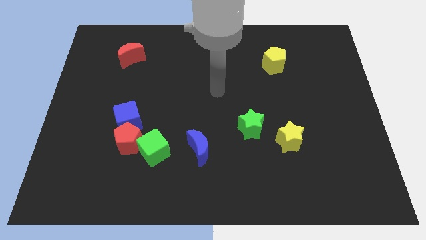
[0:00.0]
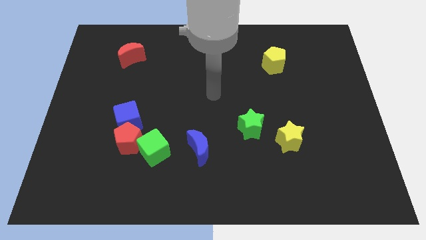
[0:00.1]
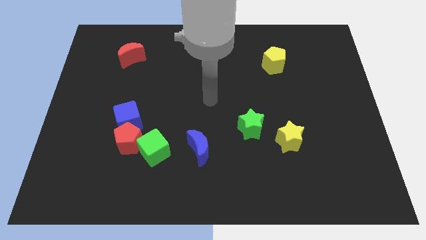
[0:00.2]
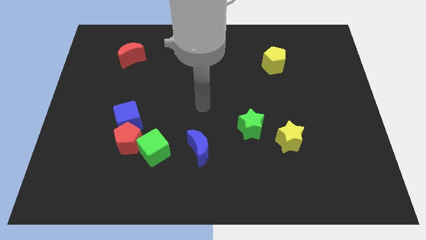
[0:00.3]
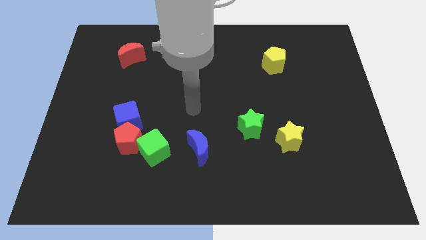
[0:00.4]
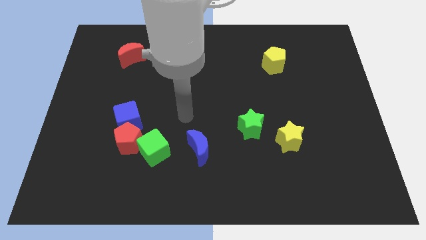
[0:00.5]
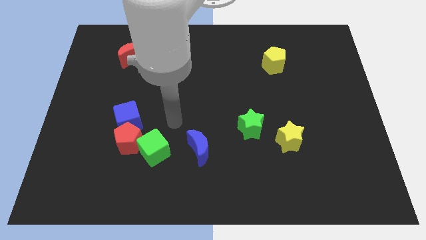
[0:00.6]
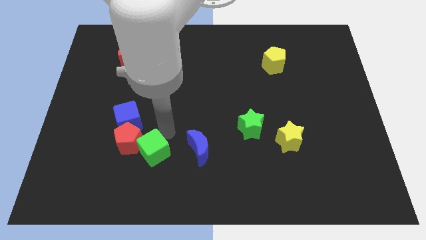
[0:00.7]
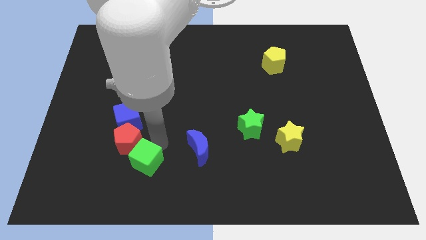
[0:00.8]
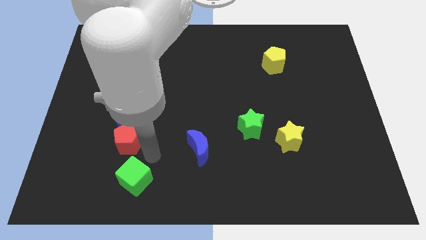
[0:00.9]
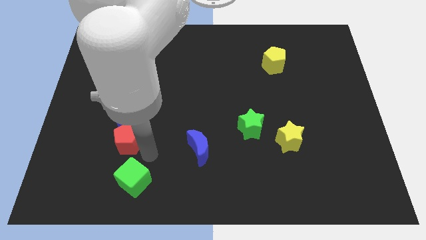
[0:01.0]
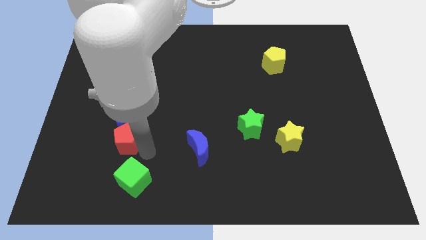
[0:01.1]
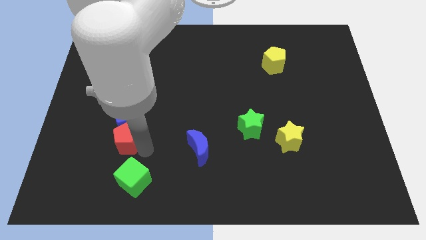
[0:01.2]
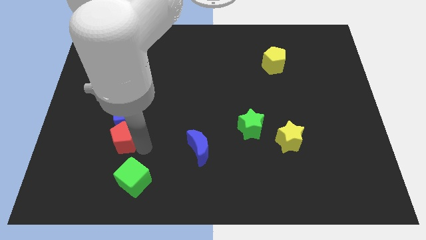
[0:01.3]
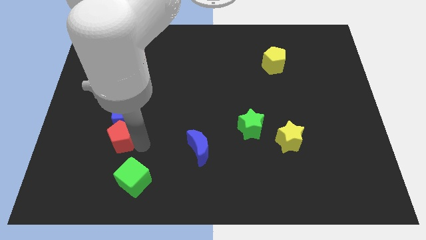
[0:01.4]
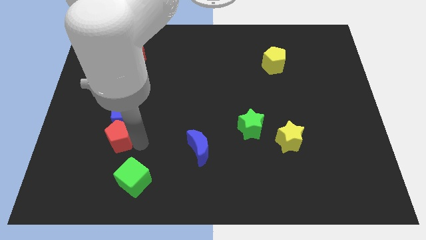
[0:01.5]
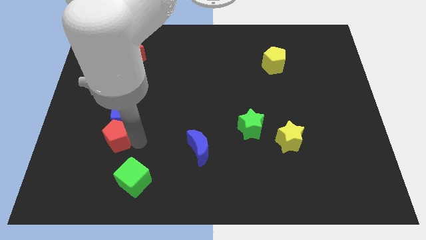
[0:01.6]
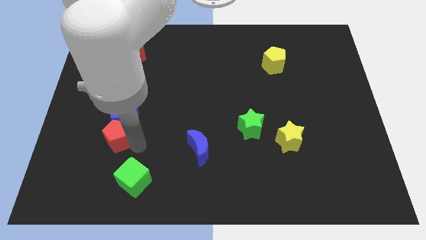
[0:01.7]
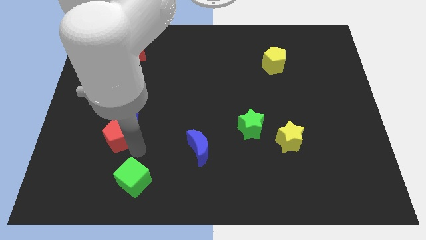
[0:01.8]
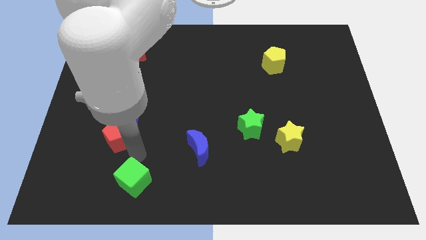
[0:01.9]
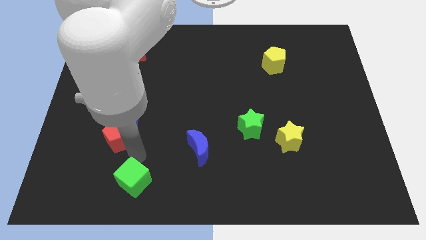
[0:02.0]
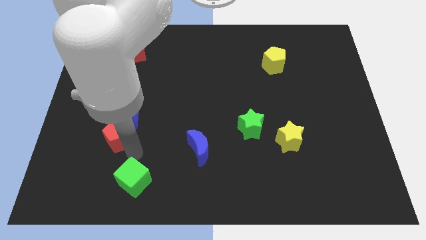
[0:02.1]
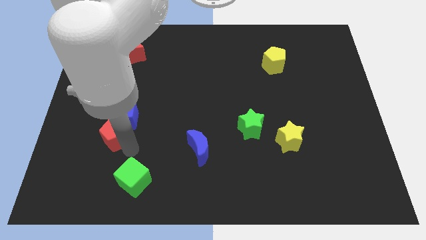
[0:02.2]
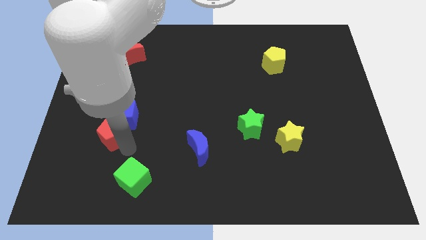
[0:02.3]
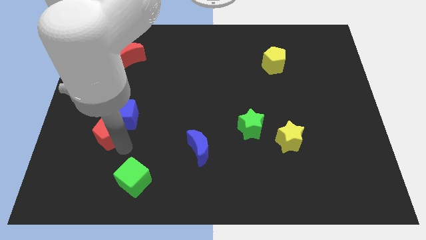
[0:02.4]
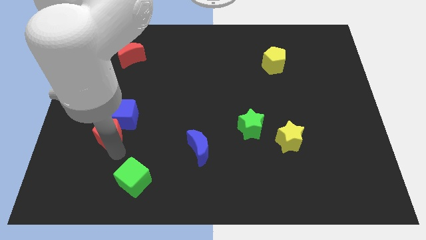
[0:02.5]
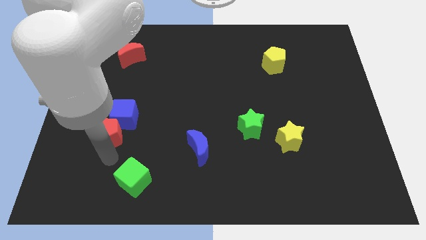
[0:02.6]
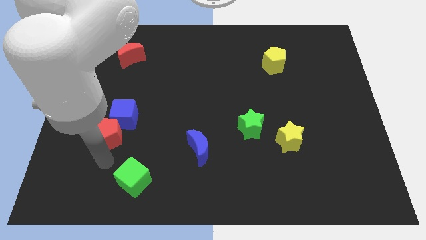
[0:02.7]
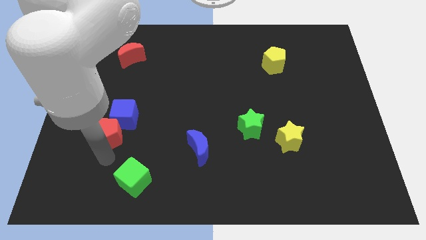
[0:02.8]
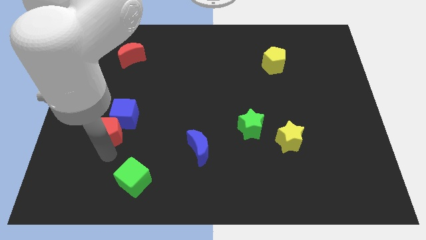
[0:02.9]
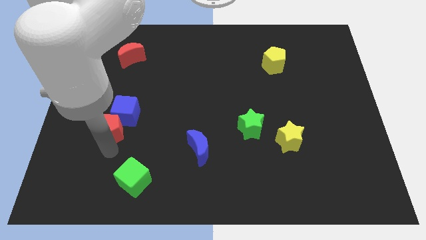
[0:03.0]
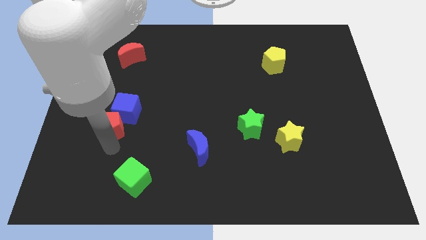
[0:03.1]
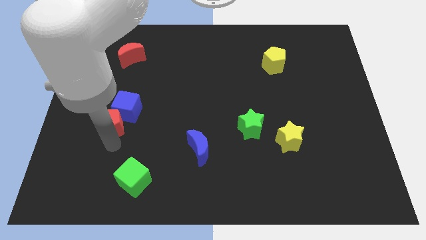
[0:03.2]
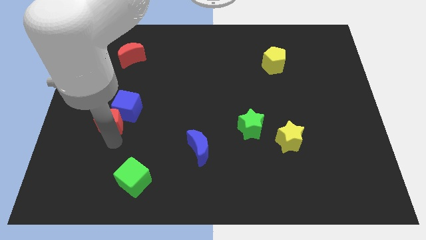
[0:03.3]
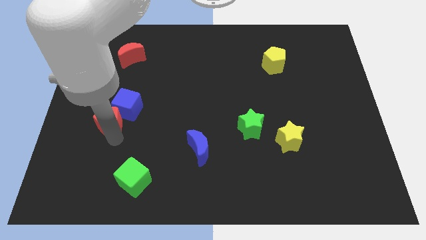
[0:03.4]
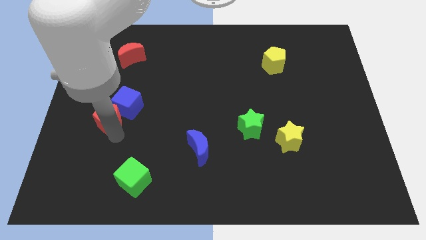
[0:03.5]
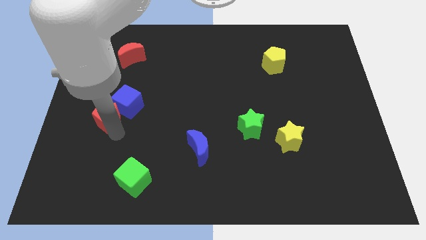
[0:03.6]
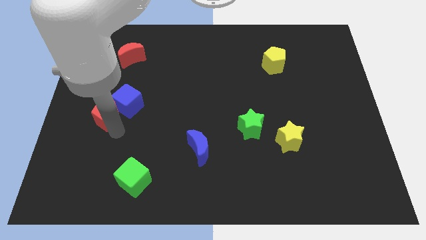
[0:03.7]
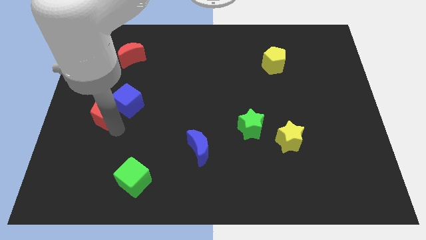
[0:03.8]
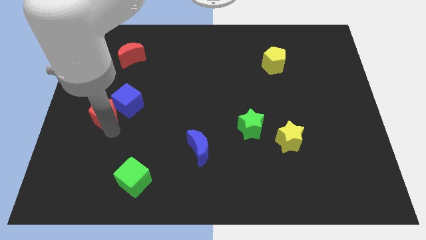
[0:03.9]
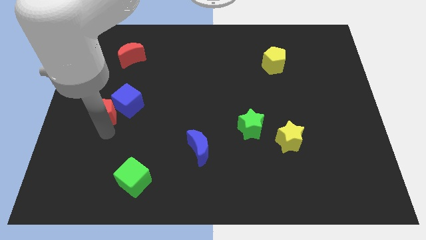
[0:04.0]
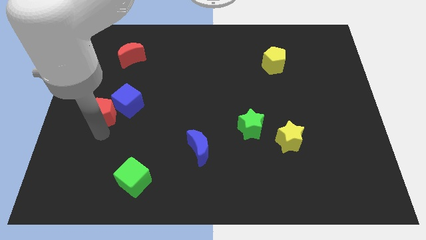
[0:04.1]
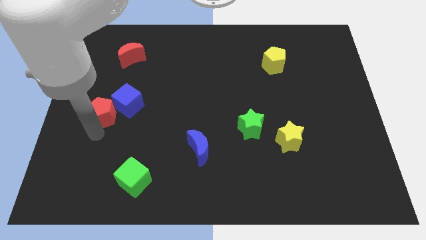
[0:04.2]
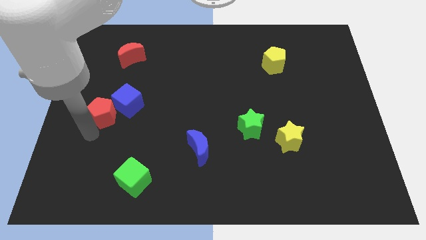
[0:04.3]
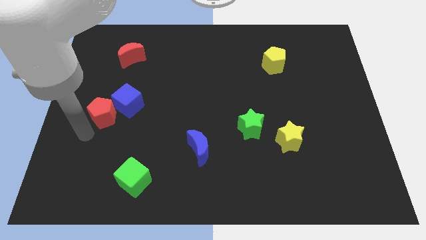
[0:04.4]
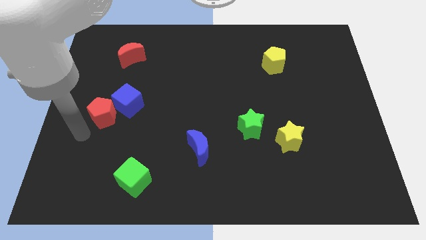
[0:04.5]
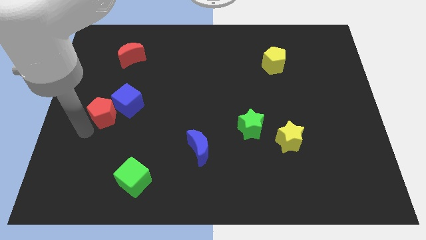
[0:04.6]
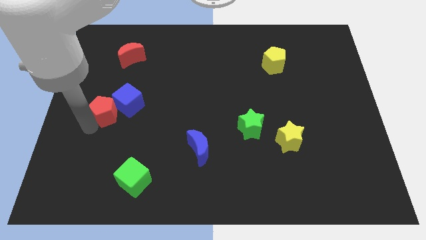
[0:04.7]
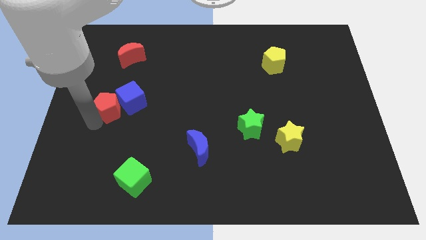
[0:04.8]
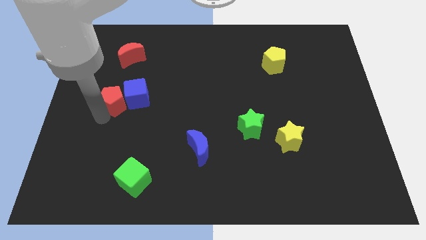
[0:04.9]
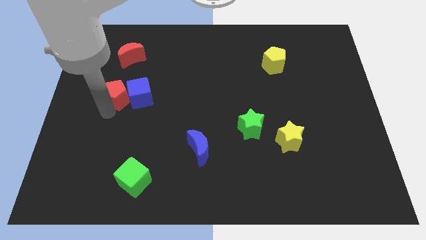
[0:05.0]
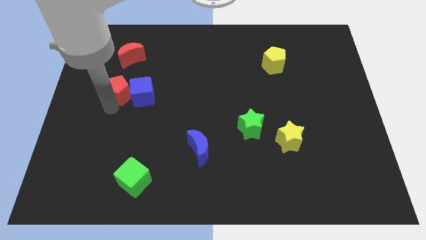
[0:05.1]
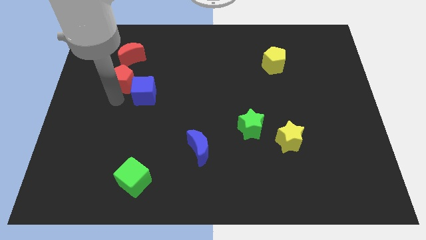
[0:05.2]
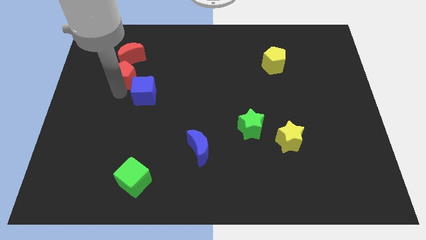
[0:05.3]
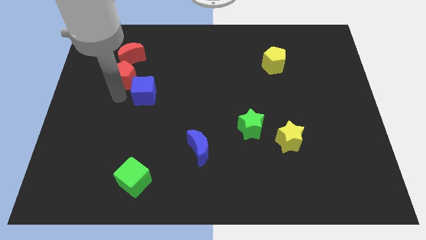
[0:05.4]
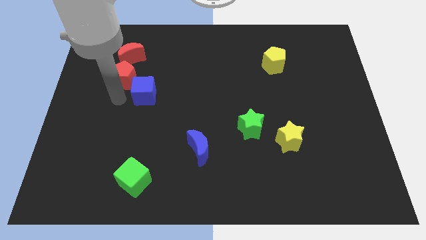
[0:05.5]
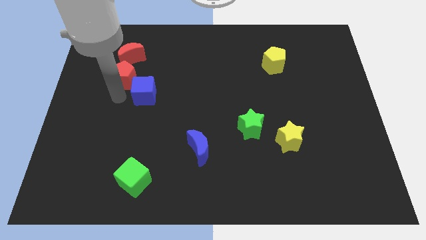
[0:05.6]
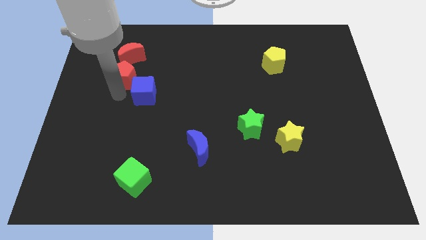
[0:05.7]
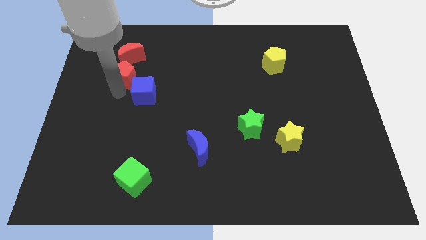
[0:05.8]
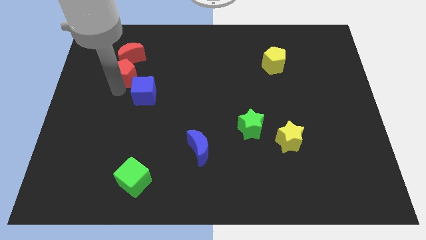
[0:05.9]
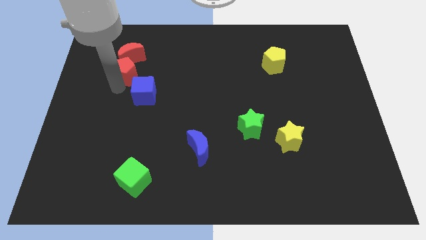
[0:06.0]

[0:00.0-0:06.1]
put the red pentagon towards the red moon

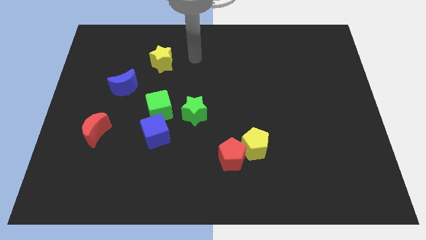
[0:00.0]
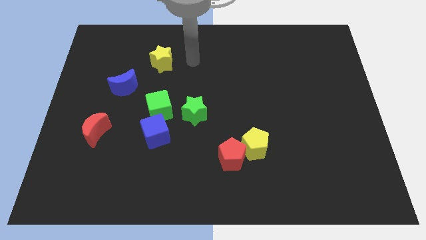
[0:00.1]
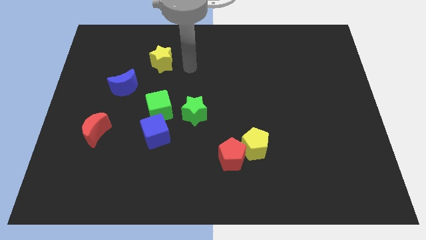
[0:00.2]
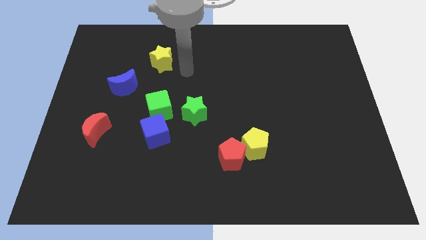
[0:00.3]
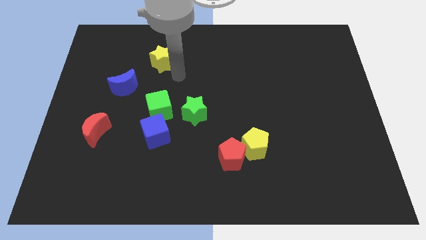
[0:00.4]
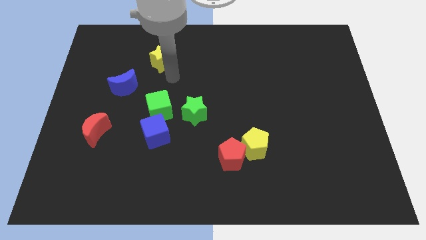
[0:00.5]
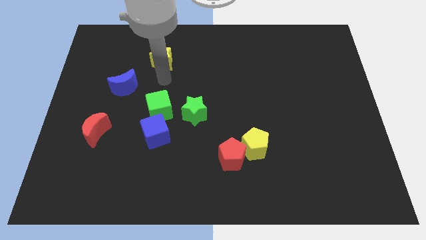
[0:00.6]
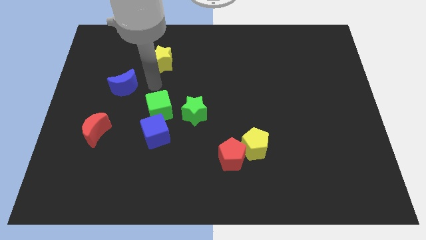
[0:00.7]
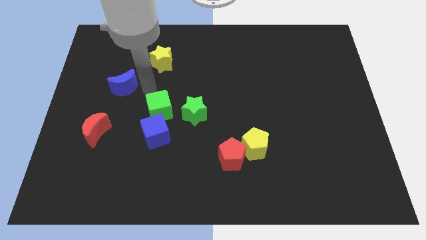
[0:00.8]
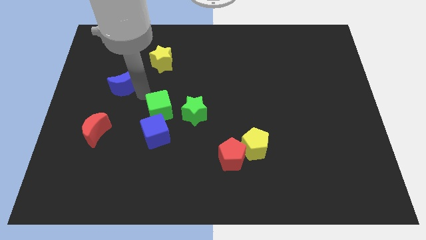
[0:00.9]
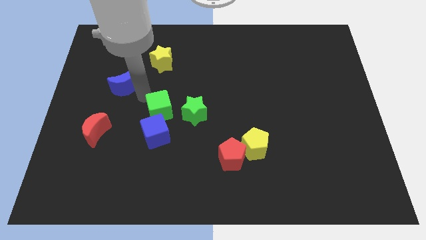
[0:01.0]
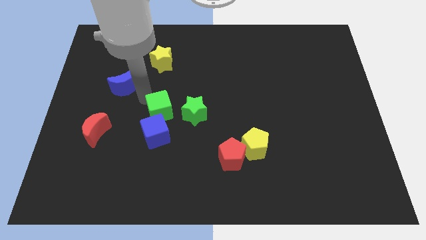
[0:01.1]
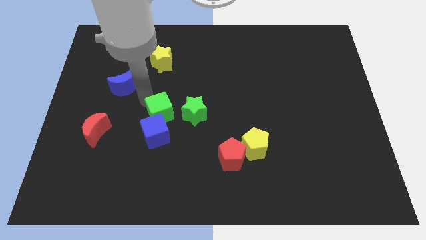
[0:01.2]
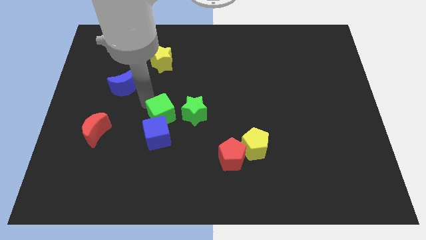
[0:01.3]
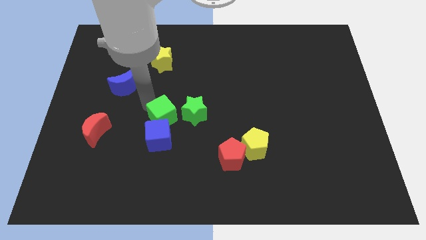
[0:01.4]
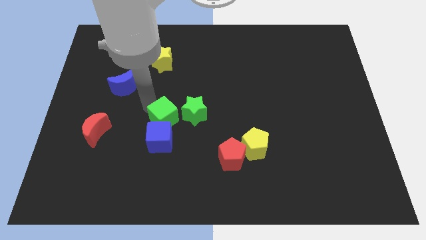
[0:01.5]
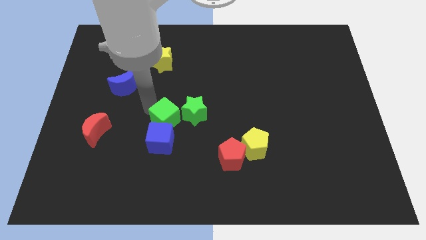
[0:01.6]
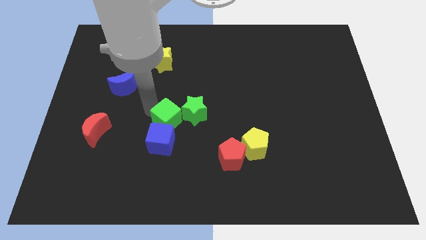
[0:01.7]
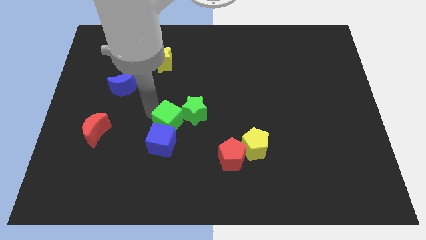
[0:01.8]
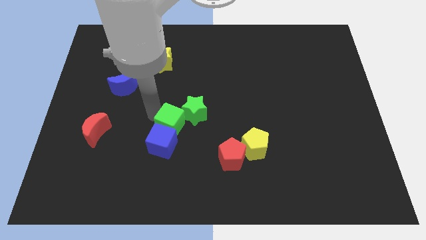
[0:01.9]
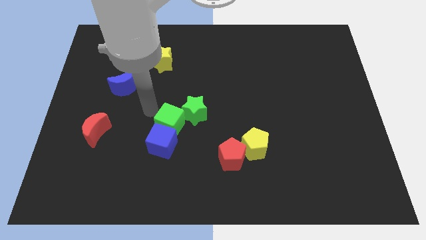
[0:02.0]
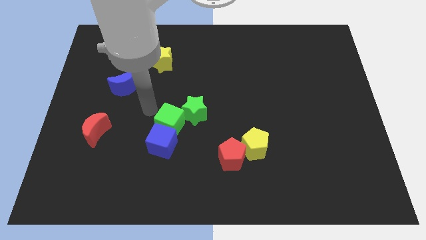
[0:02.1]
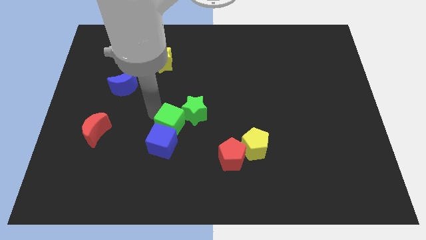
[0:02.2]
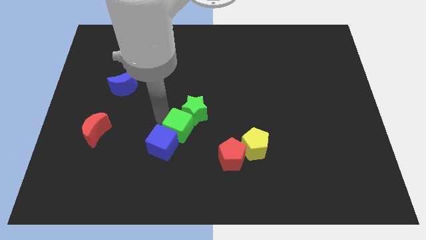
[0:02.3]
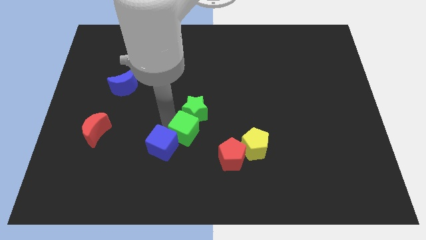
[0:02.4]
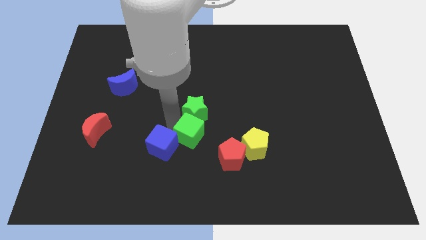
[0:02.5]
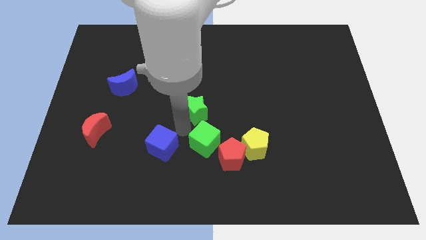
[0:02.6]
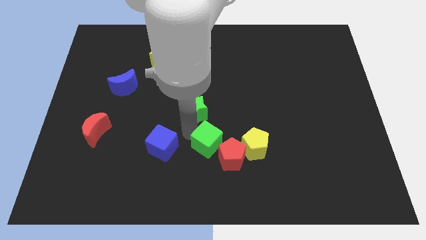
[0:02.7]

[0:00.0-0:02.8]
slide the green cube towards the red pentagon
